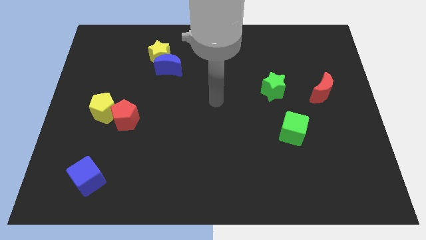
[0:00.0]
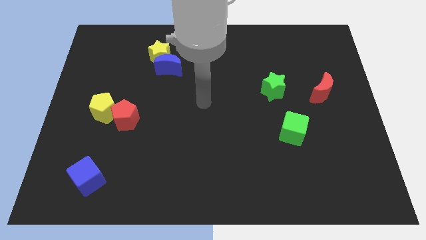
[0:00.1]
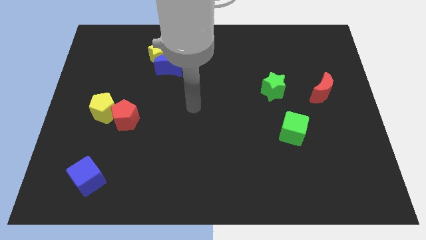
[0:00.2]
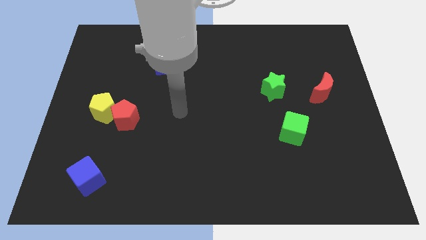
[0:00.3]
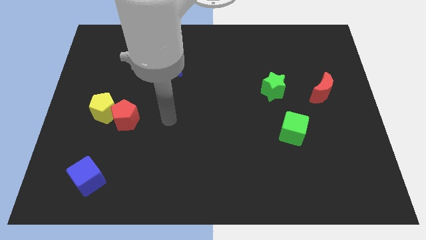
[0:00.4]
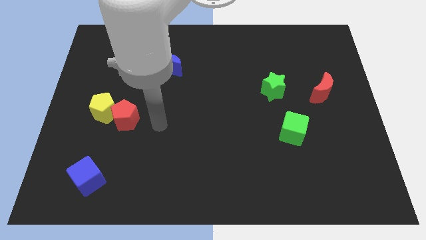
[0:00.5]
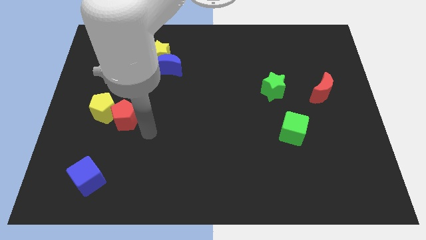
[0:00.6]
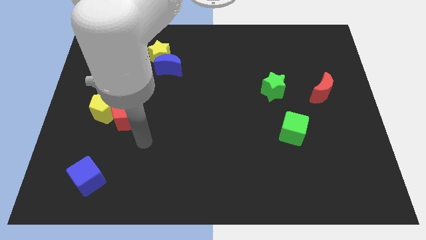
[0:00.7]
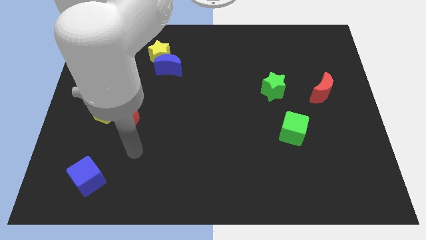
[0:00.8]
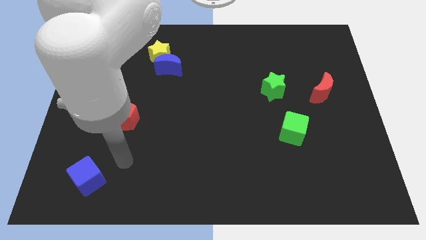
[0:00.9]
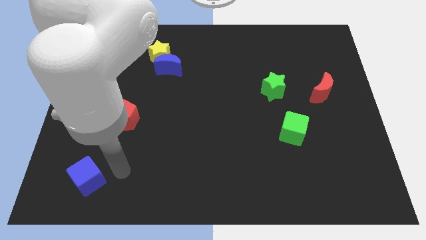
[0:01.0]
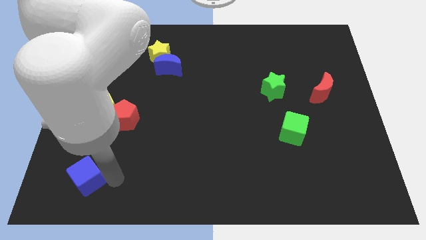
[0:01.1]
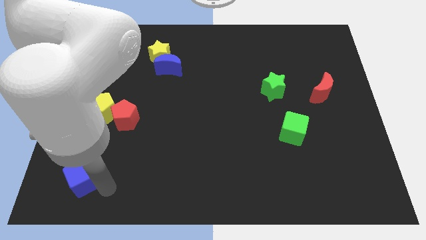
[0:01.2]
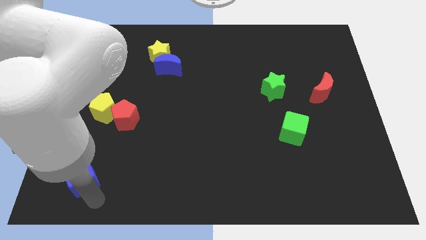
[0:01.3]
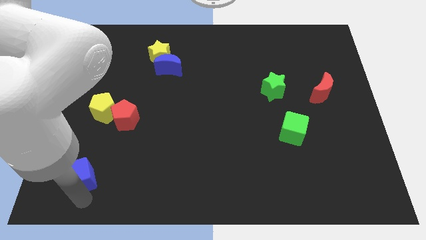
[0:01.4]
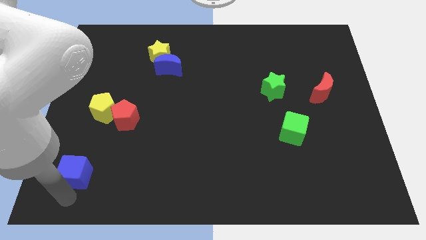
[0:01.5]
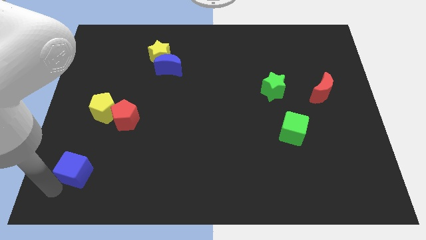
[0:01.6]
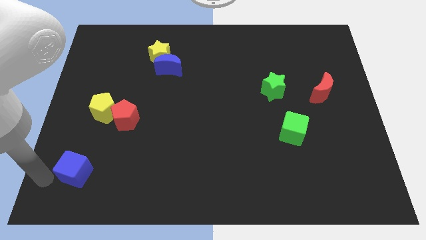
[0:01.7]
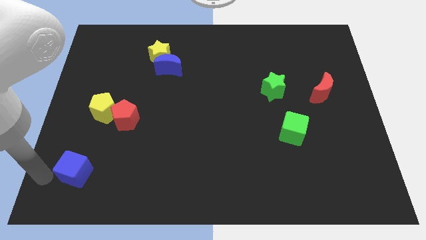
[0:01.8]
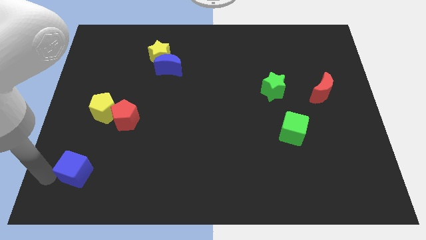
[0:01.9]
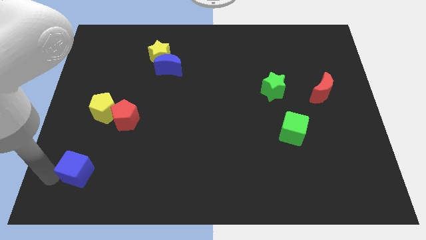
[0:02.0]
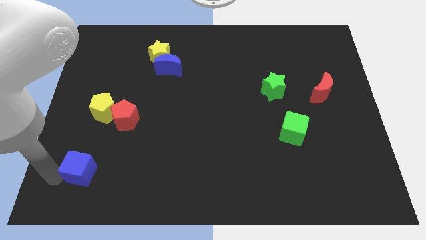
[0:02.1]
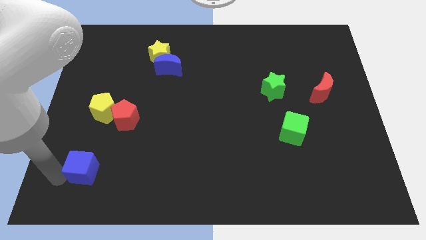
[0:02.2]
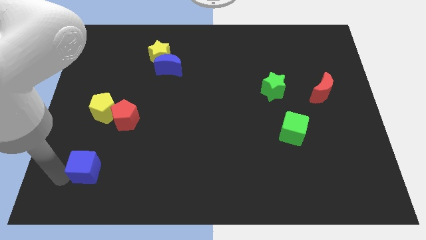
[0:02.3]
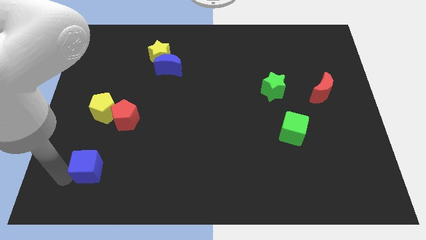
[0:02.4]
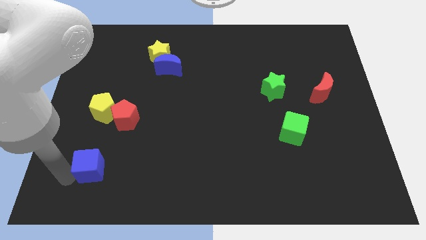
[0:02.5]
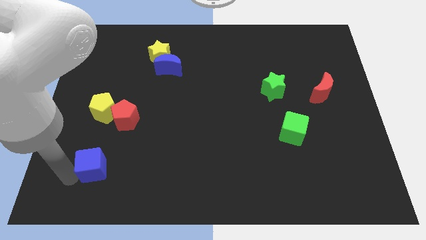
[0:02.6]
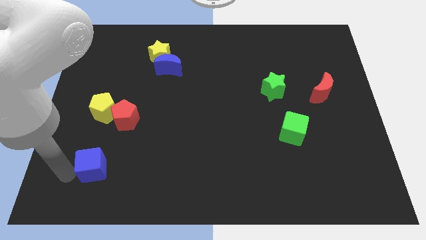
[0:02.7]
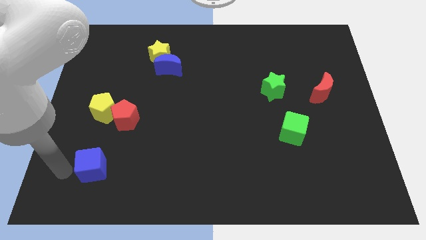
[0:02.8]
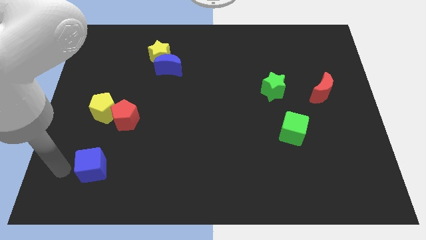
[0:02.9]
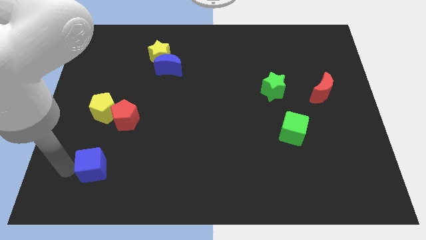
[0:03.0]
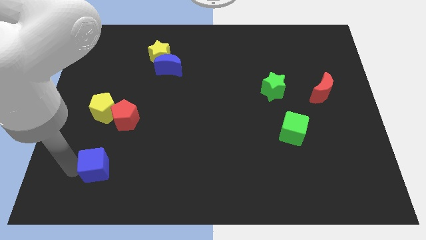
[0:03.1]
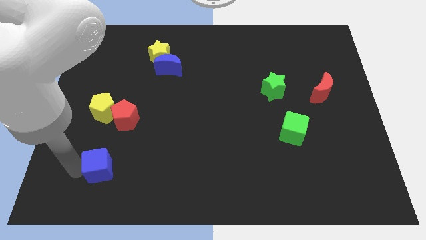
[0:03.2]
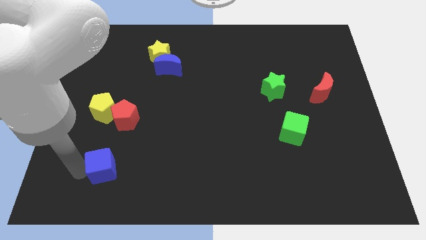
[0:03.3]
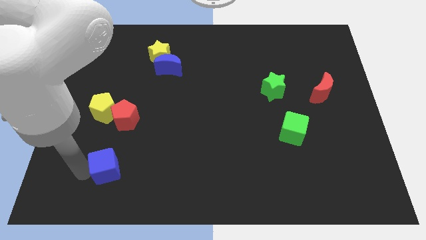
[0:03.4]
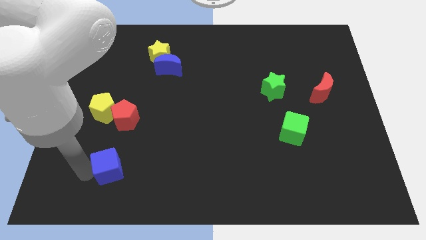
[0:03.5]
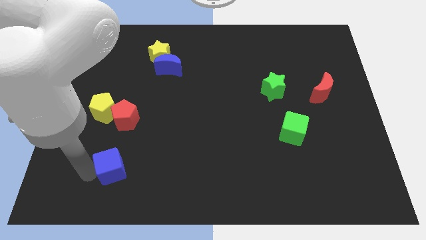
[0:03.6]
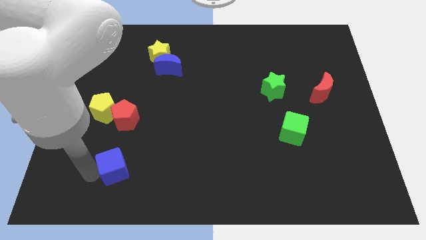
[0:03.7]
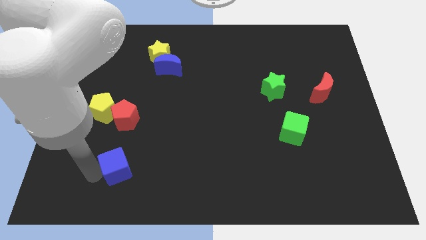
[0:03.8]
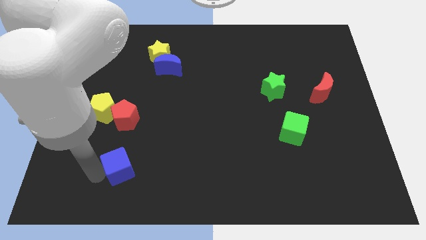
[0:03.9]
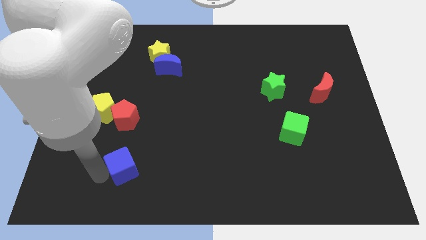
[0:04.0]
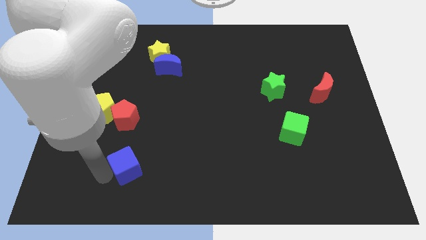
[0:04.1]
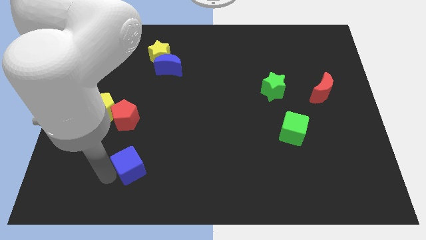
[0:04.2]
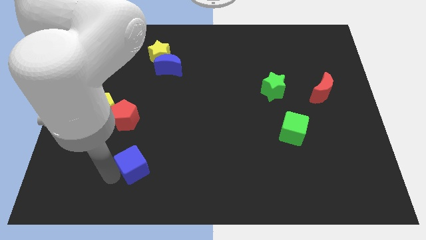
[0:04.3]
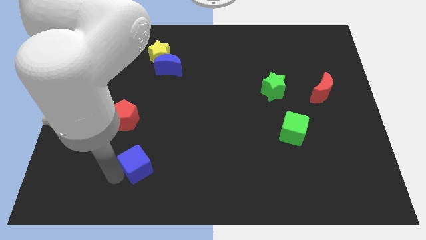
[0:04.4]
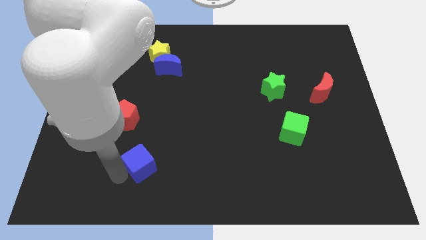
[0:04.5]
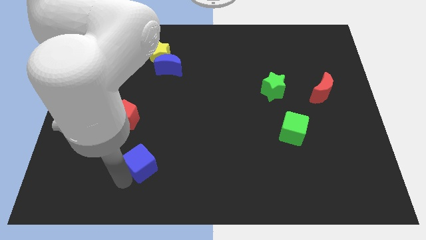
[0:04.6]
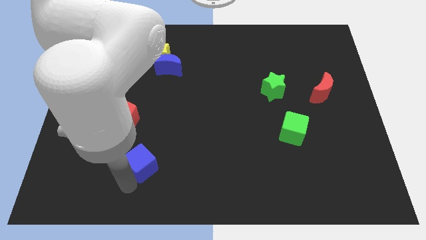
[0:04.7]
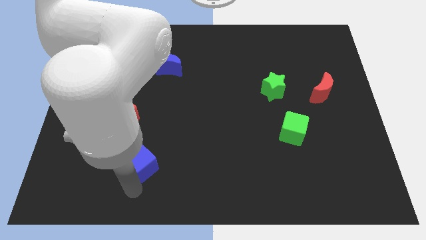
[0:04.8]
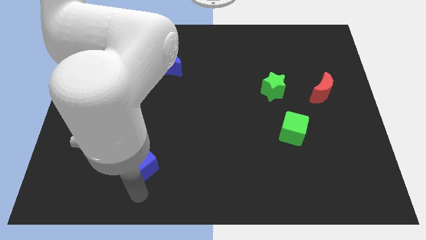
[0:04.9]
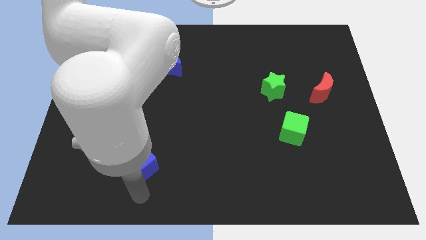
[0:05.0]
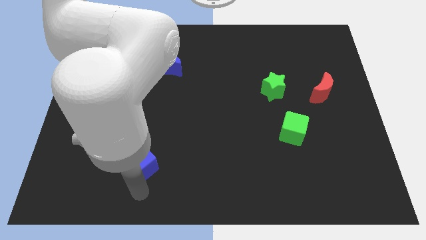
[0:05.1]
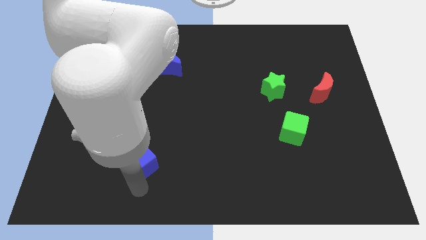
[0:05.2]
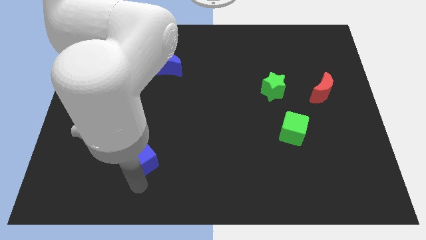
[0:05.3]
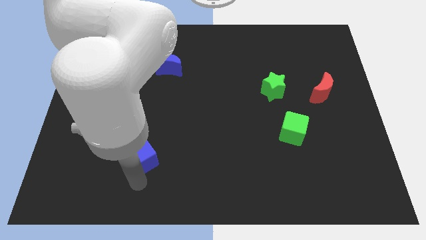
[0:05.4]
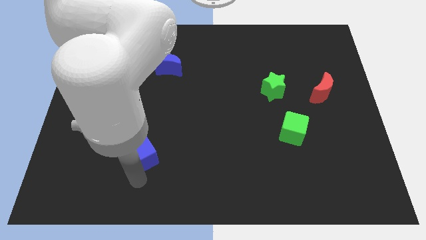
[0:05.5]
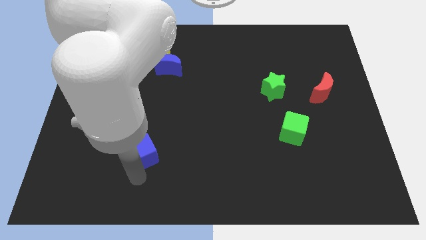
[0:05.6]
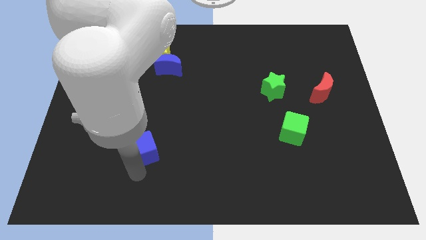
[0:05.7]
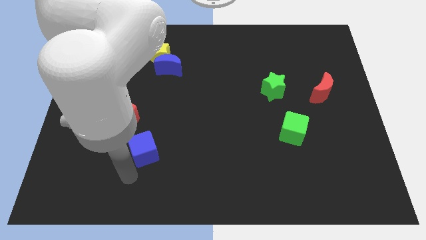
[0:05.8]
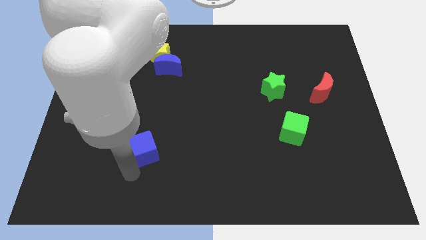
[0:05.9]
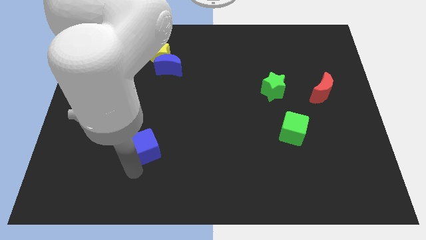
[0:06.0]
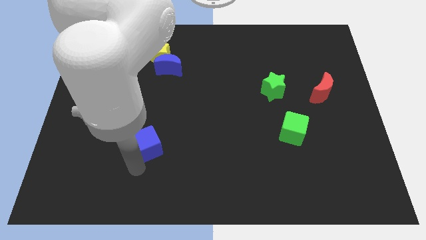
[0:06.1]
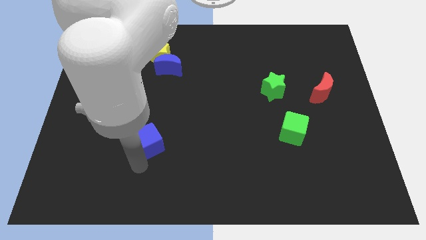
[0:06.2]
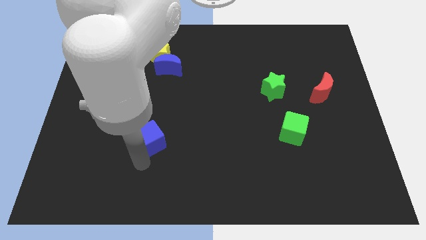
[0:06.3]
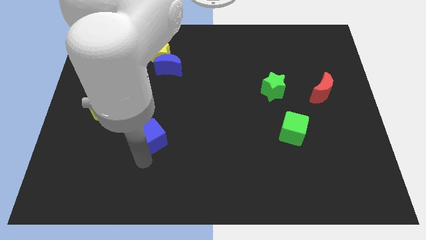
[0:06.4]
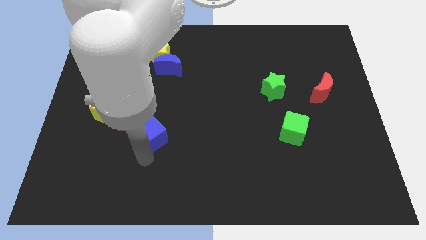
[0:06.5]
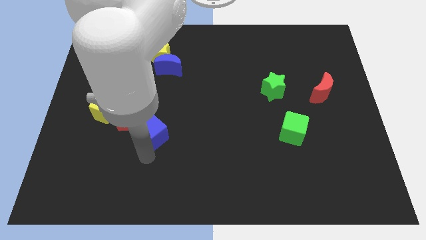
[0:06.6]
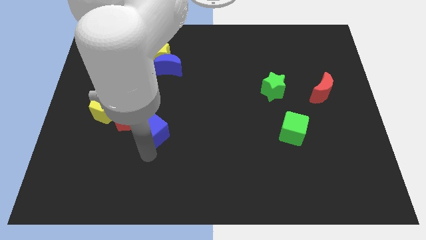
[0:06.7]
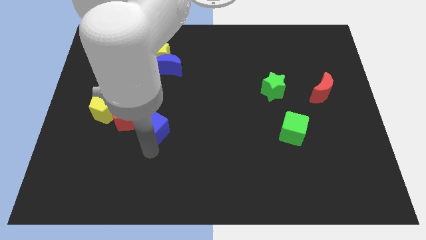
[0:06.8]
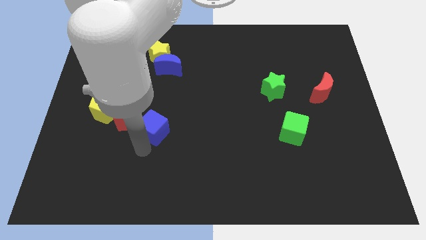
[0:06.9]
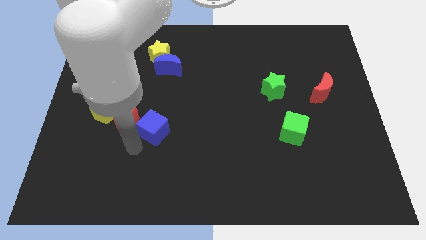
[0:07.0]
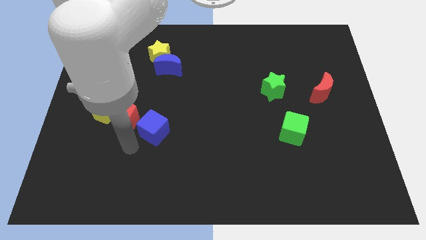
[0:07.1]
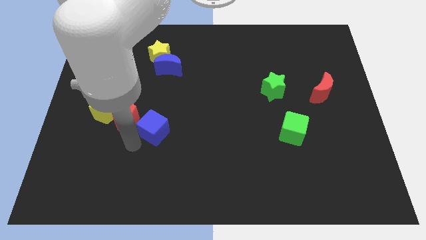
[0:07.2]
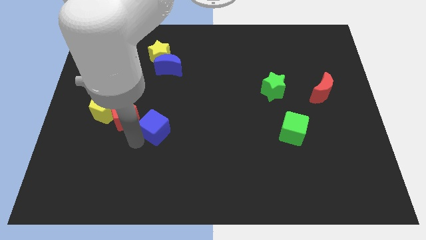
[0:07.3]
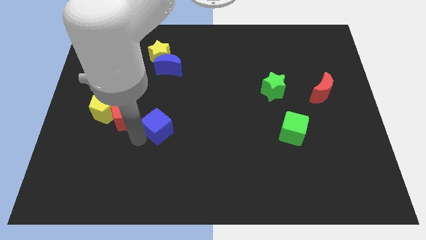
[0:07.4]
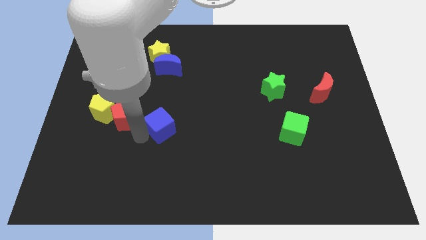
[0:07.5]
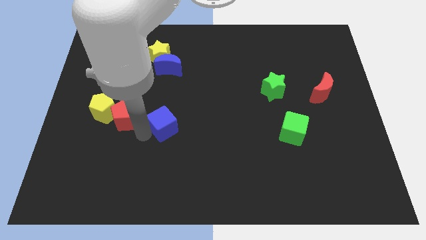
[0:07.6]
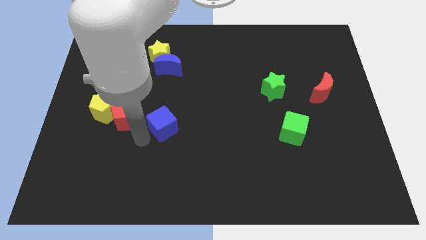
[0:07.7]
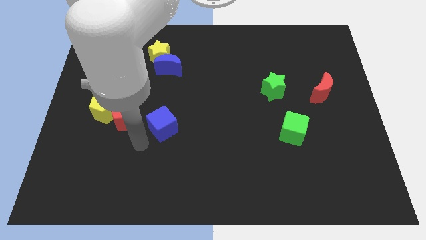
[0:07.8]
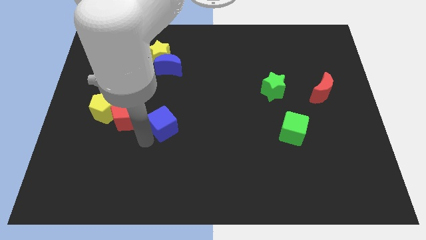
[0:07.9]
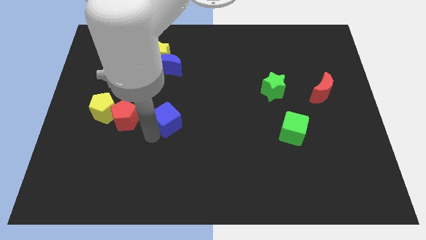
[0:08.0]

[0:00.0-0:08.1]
move the blue cube up and then right
